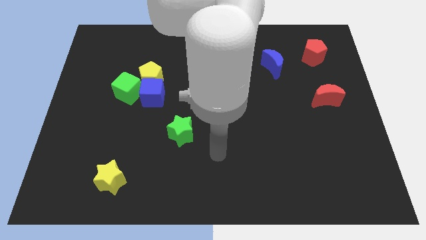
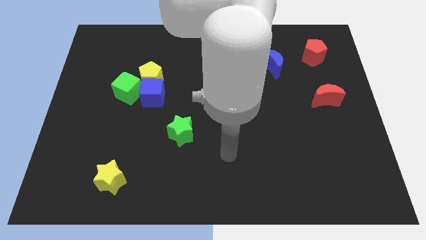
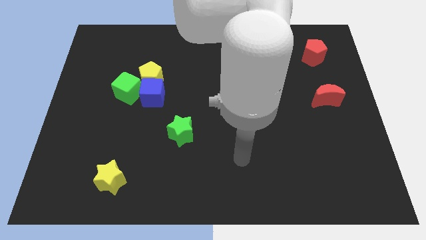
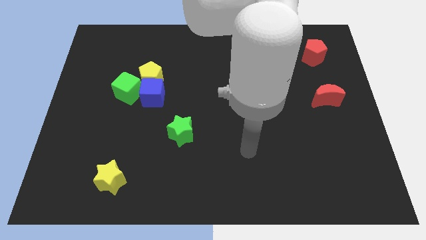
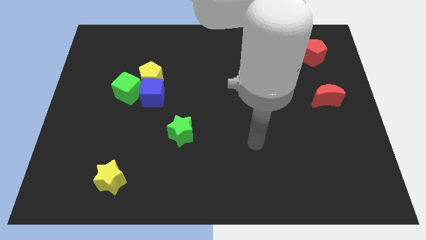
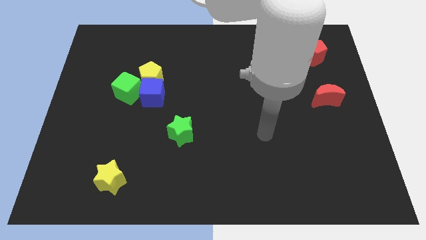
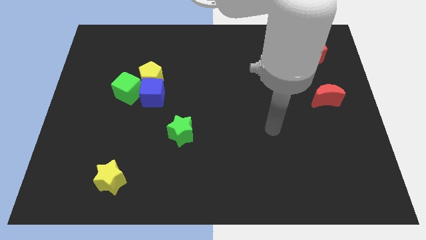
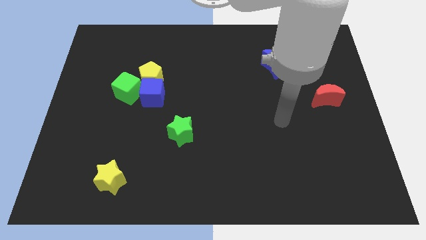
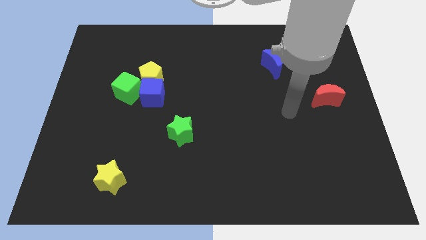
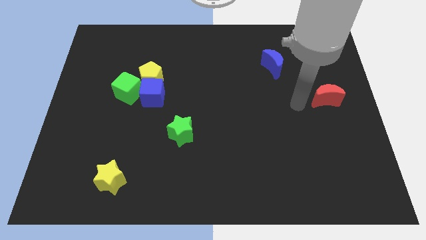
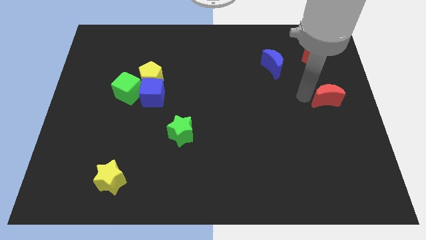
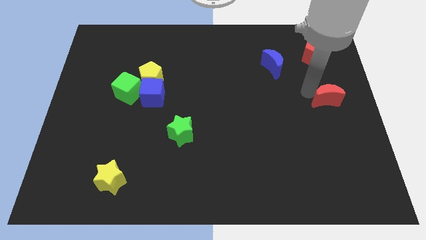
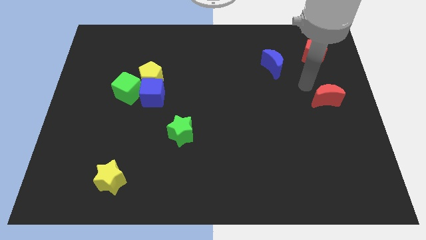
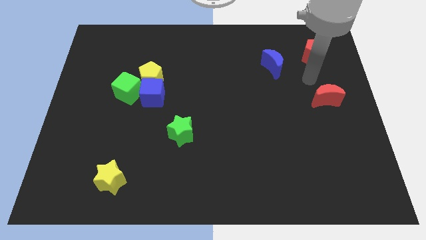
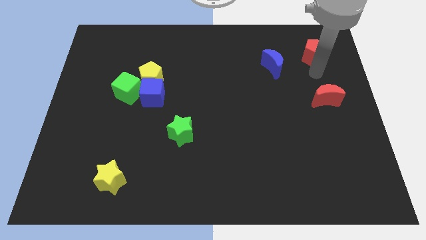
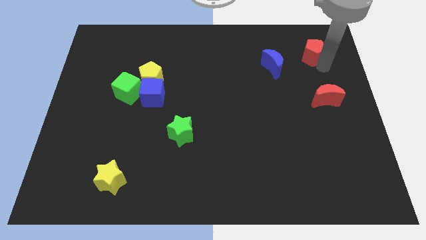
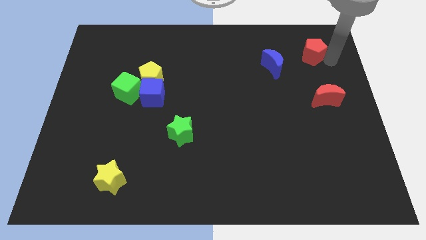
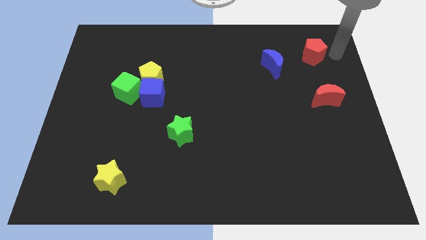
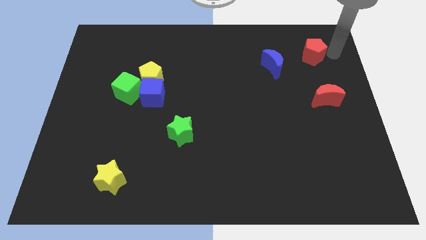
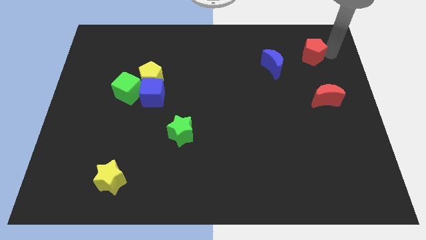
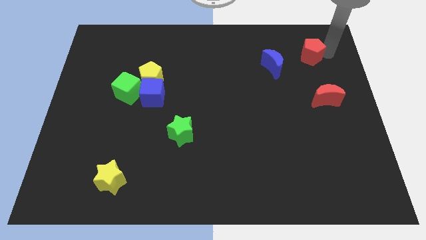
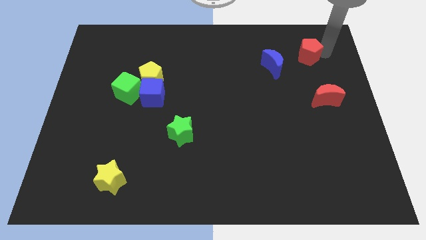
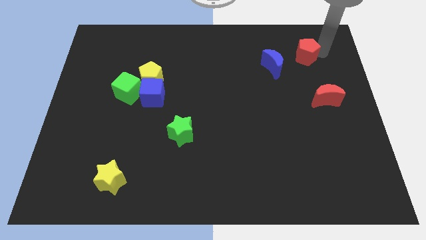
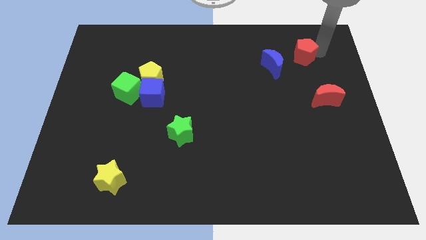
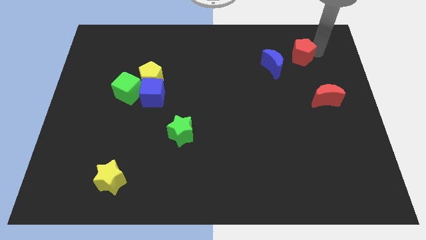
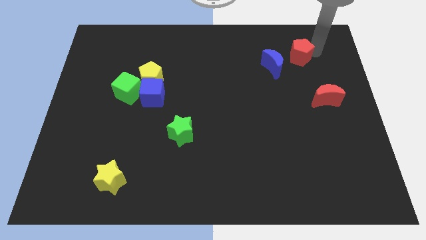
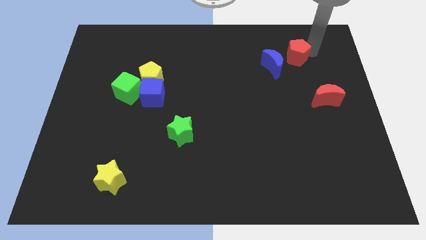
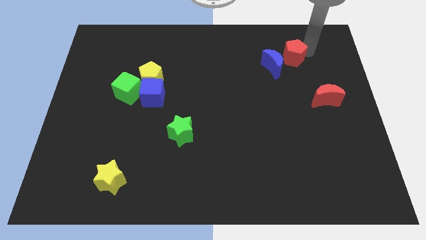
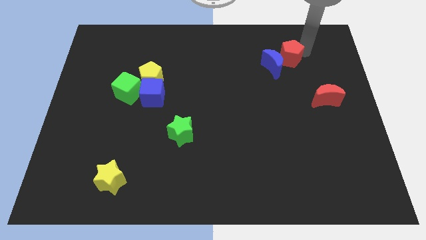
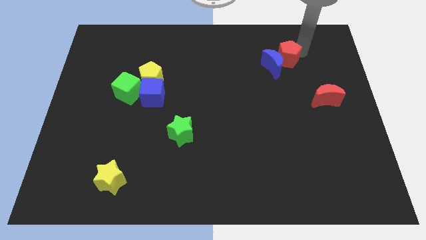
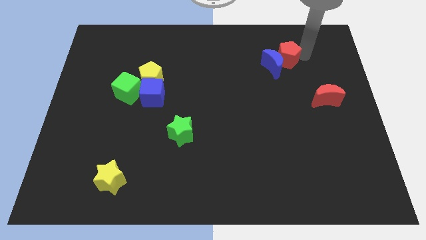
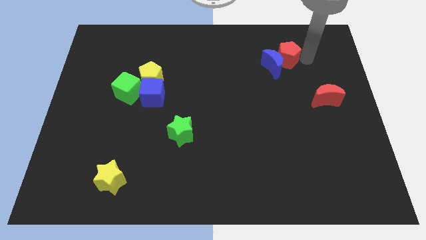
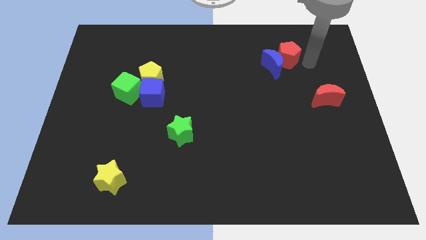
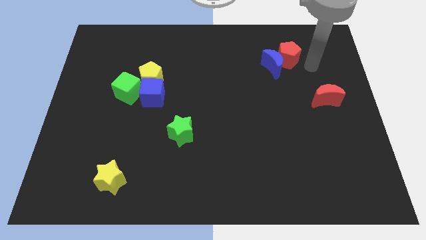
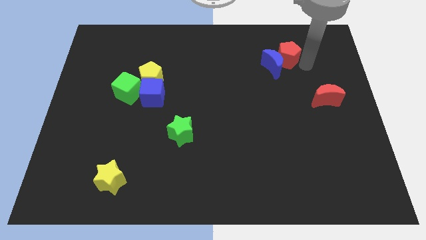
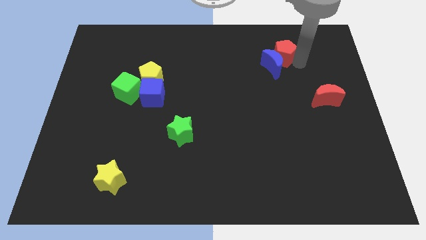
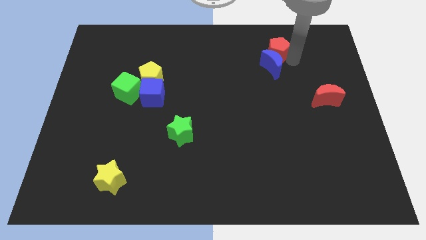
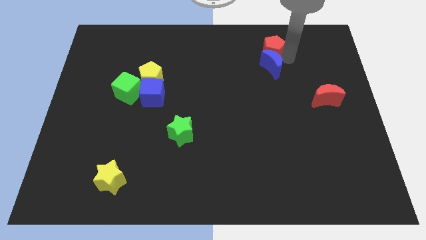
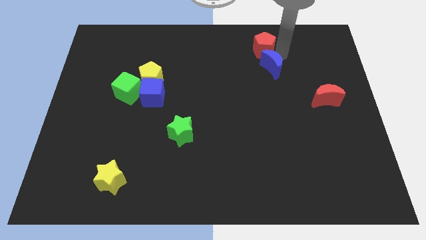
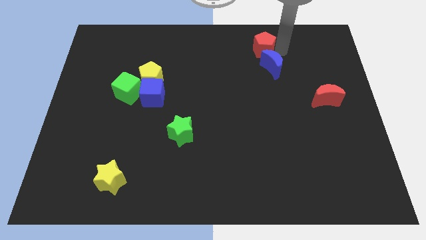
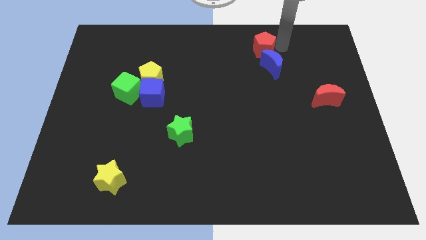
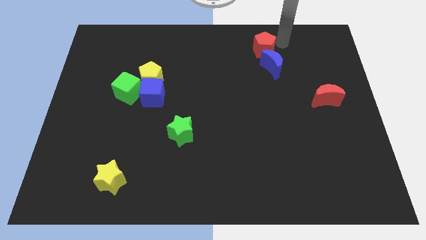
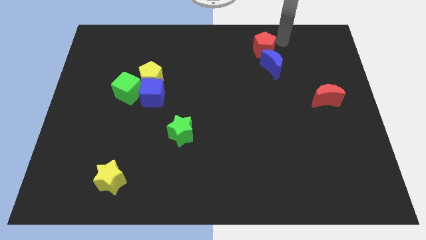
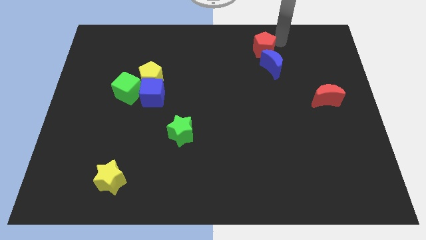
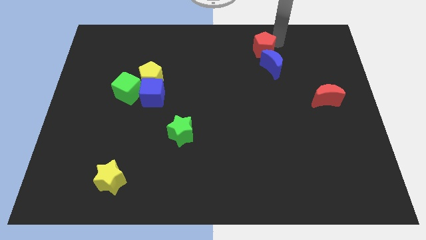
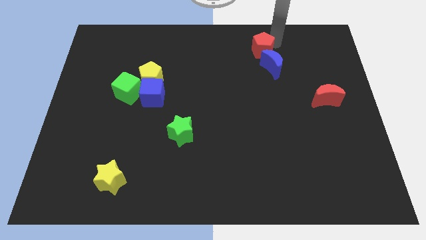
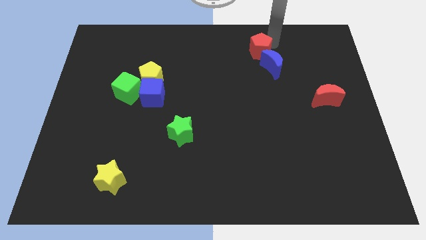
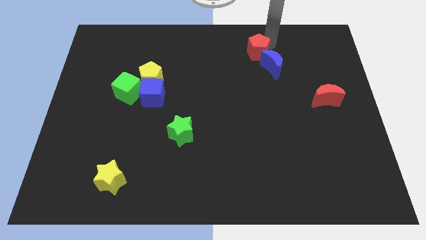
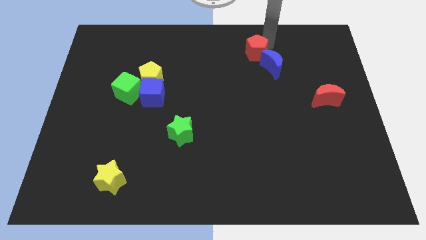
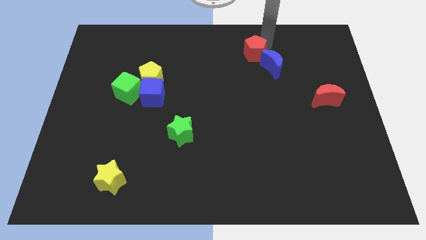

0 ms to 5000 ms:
push the red pentagon just left of the blue moon

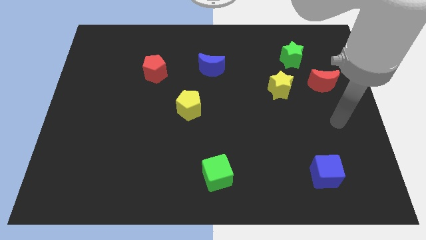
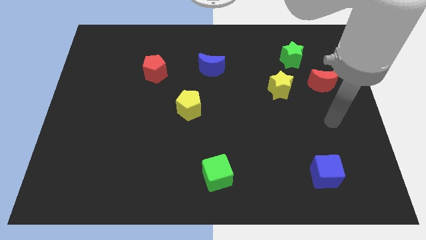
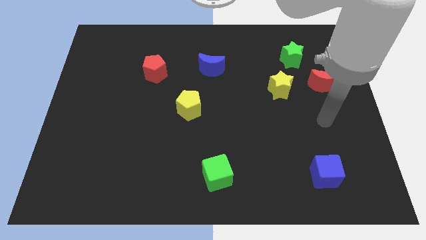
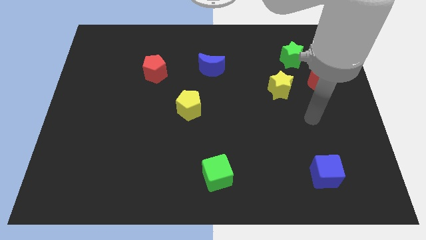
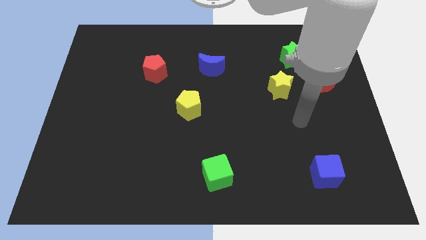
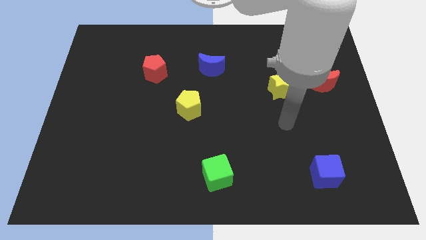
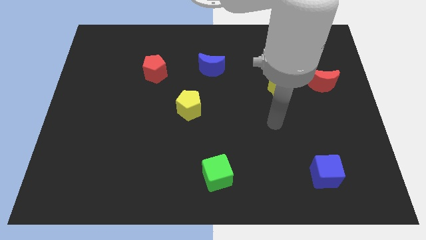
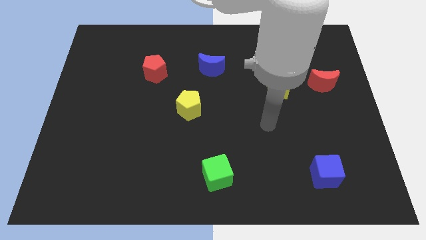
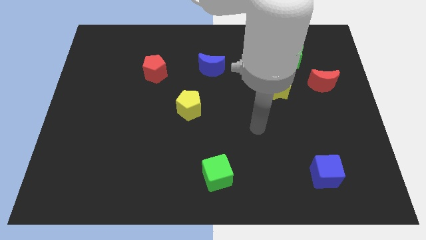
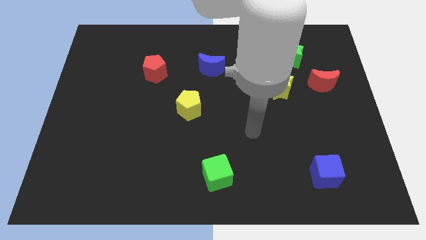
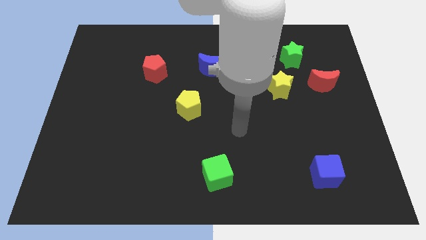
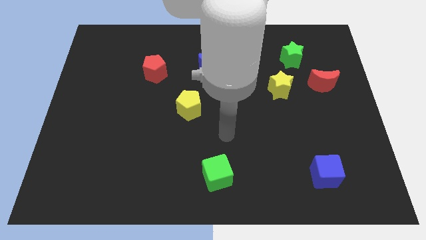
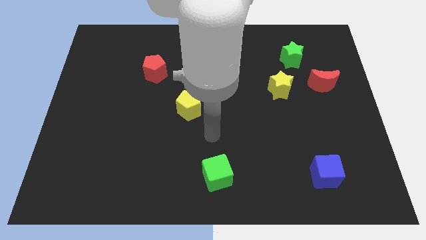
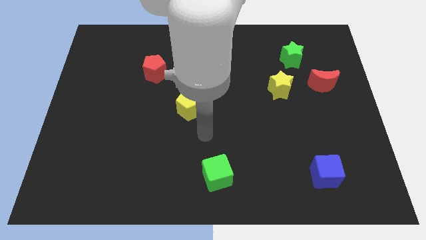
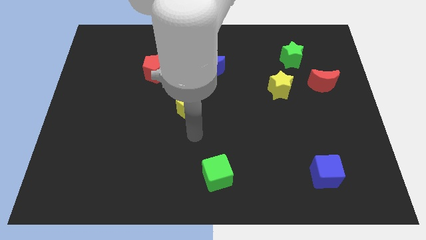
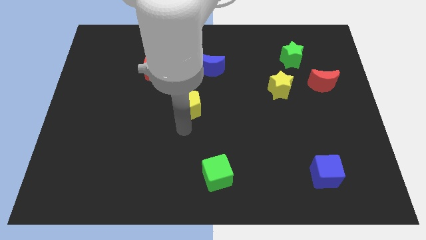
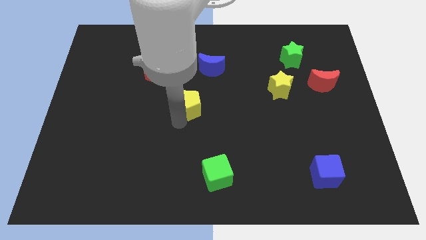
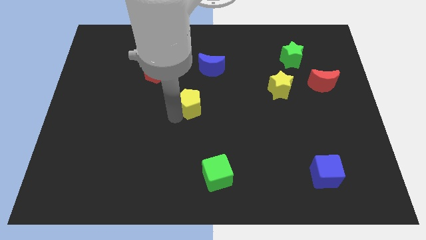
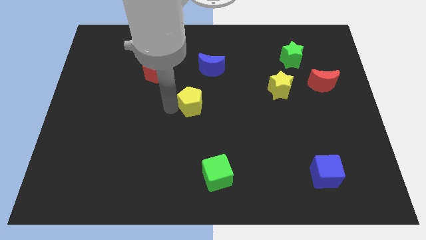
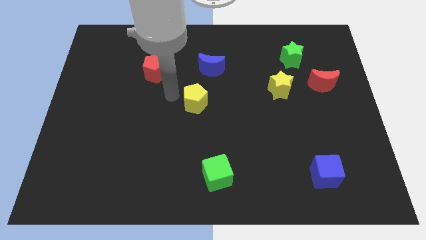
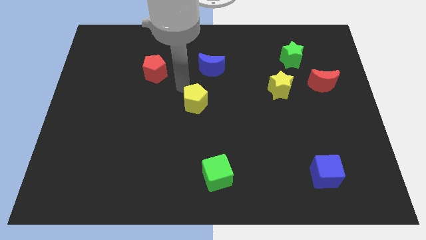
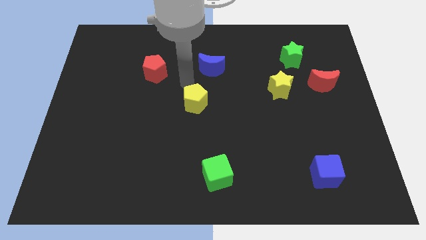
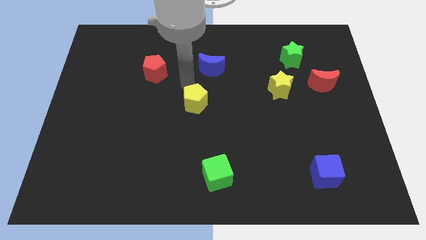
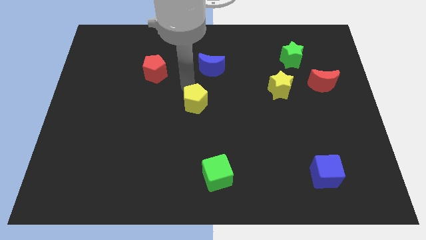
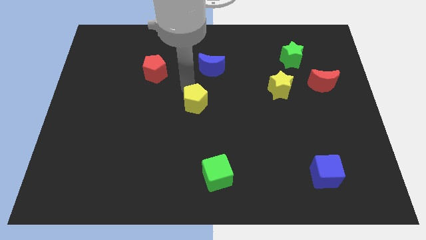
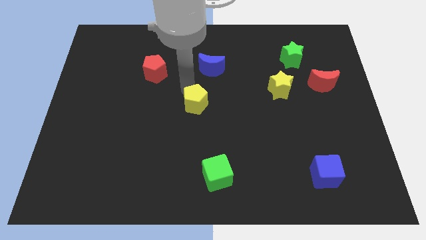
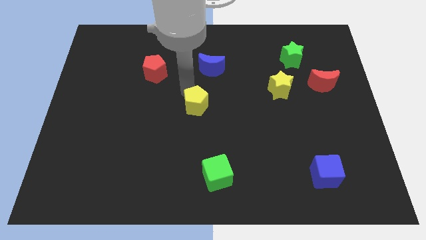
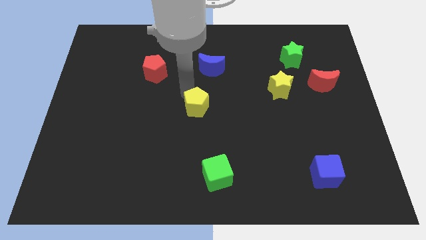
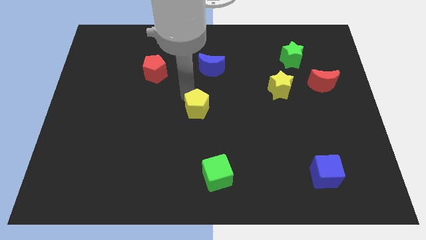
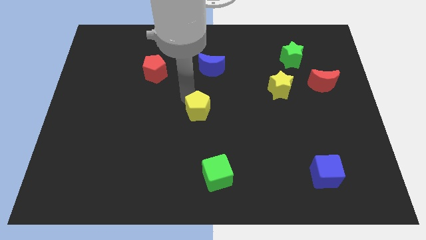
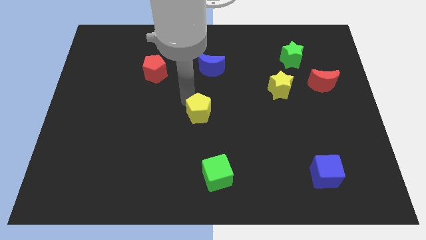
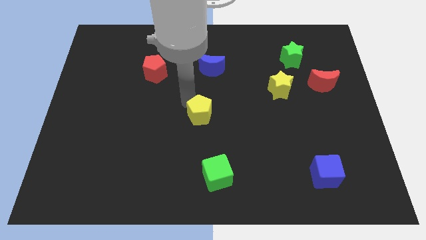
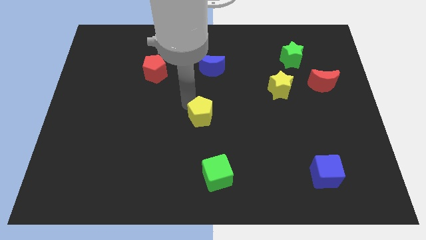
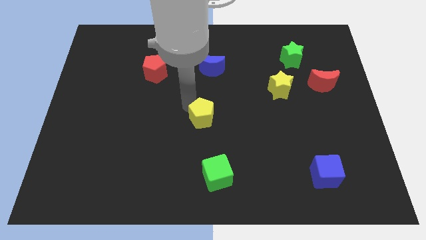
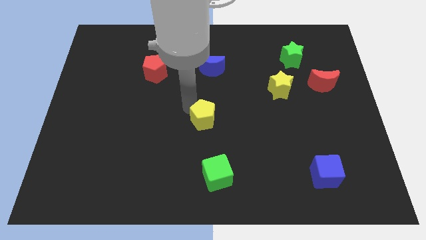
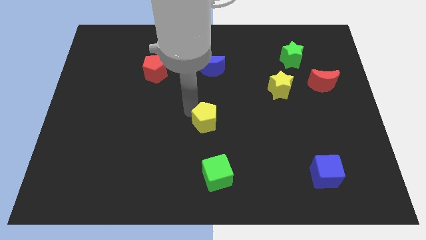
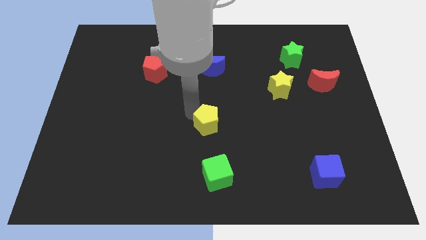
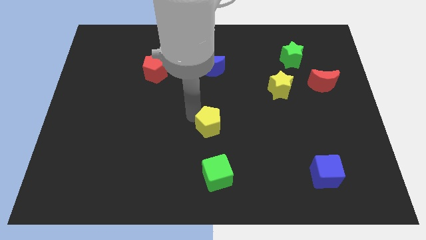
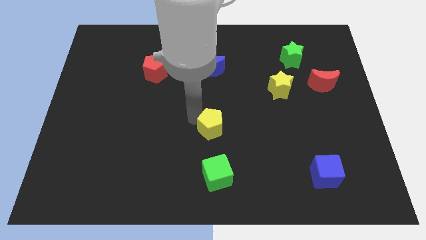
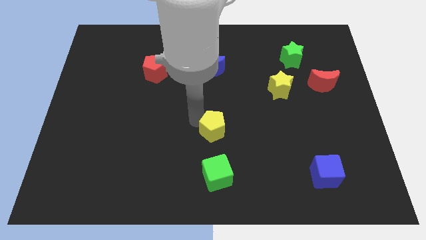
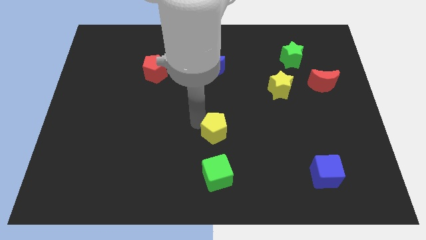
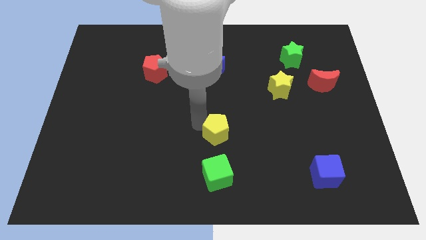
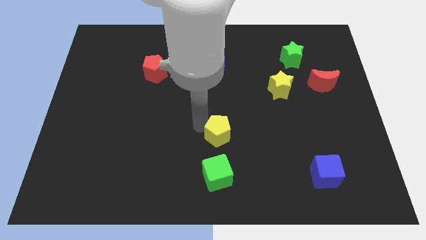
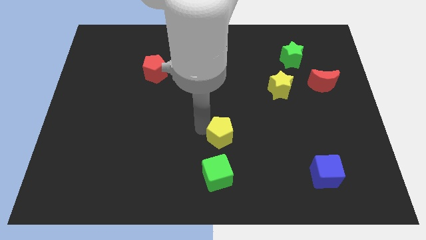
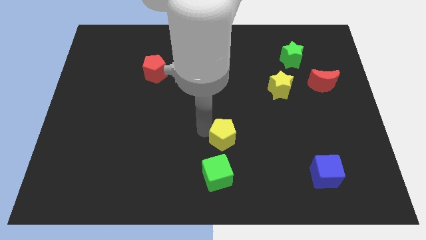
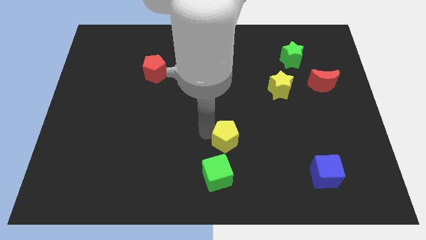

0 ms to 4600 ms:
move the yellow pentagon diagonally up and to the right of the green cube
